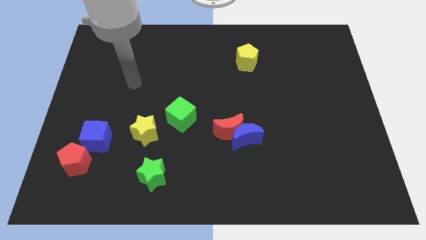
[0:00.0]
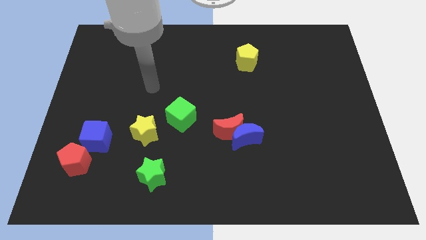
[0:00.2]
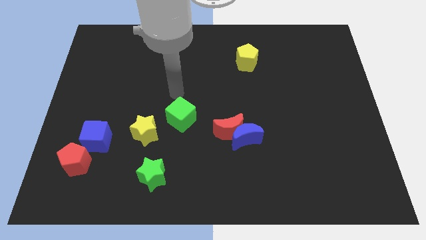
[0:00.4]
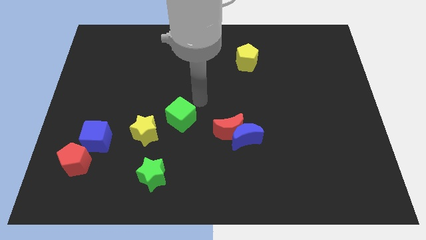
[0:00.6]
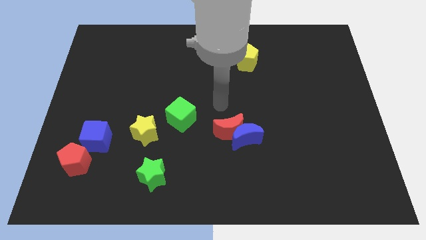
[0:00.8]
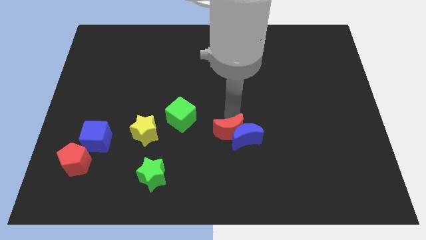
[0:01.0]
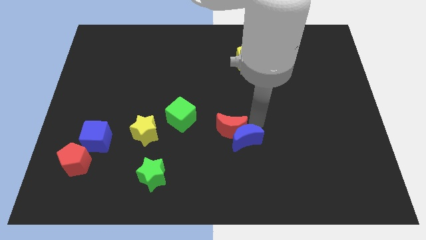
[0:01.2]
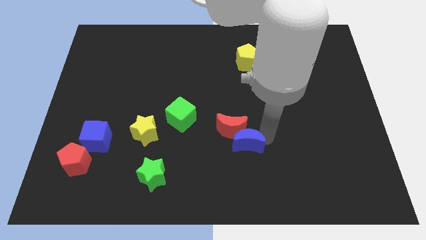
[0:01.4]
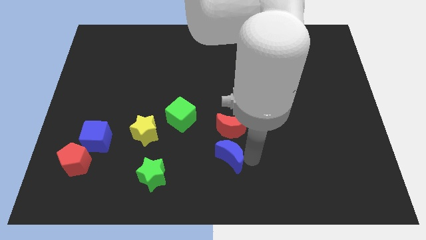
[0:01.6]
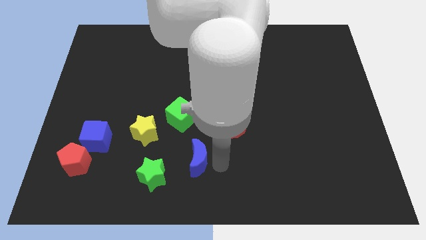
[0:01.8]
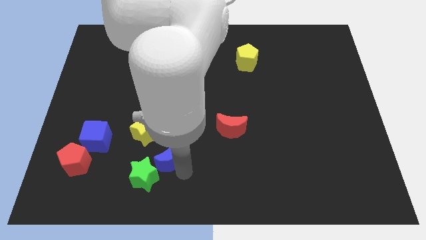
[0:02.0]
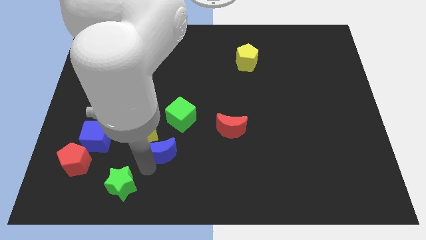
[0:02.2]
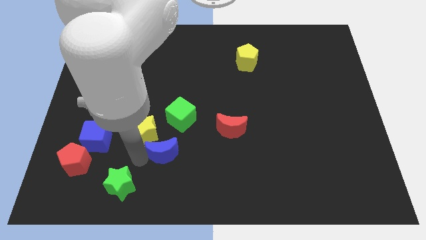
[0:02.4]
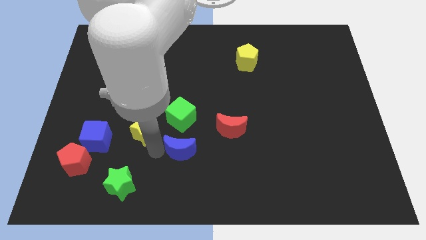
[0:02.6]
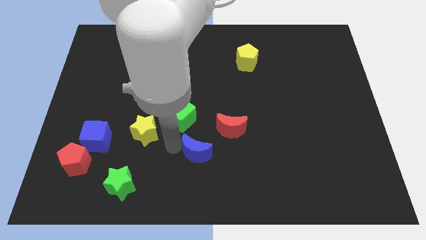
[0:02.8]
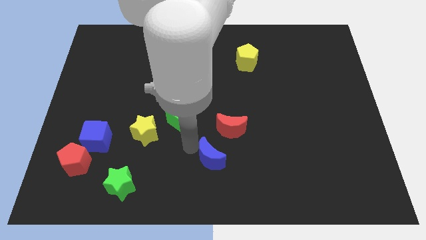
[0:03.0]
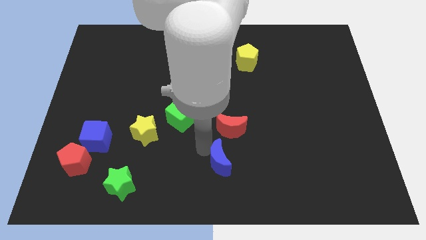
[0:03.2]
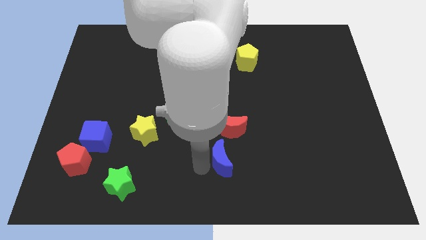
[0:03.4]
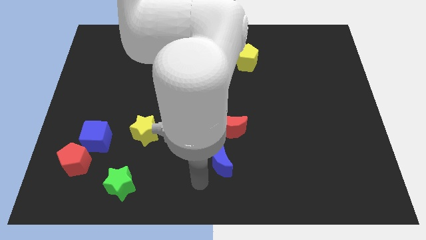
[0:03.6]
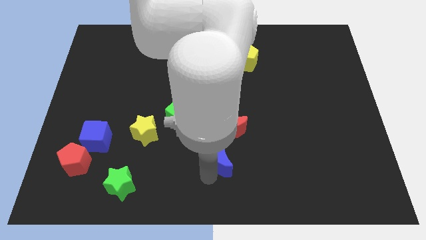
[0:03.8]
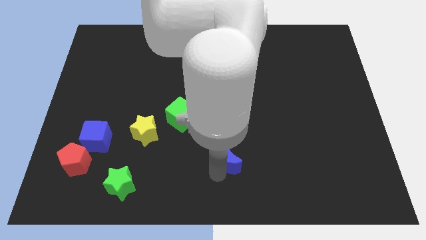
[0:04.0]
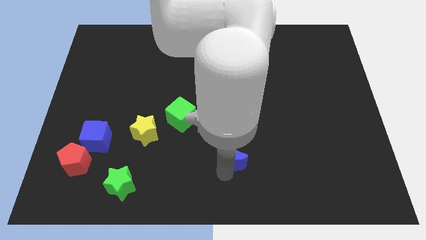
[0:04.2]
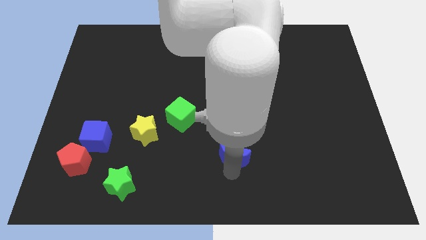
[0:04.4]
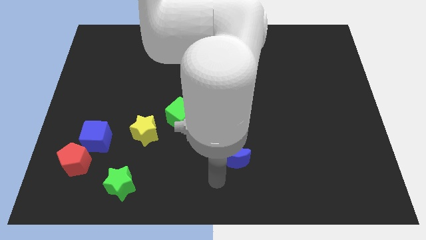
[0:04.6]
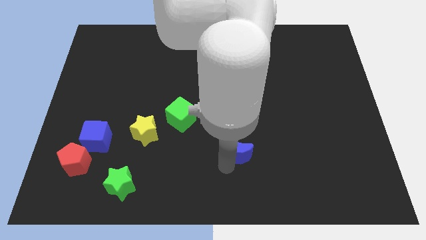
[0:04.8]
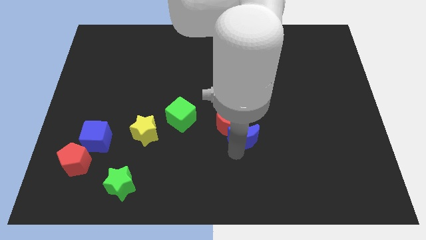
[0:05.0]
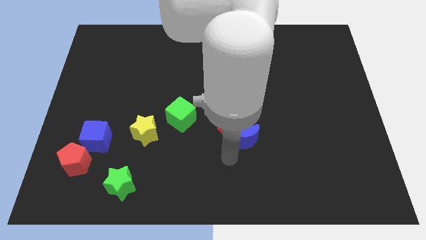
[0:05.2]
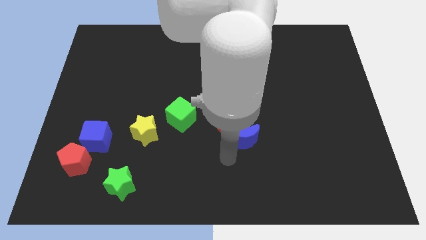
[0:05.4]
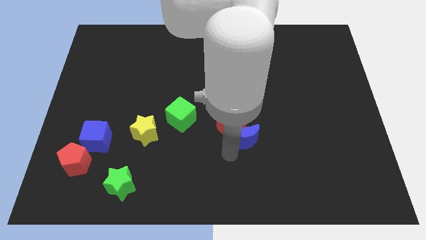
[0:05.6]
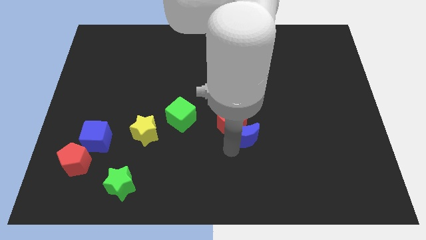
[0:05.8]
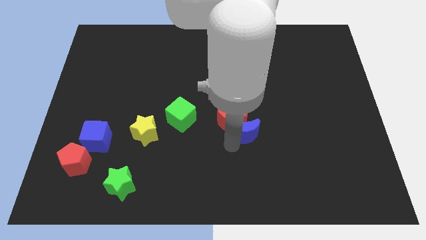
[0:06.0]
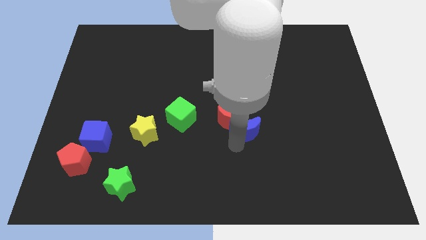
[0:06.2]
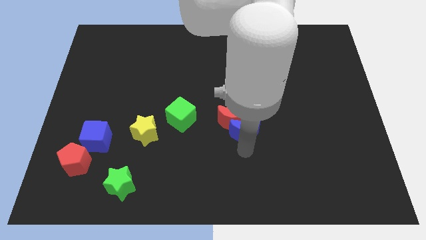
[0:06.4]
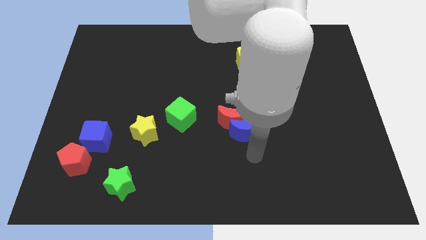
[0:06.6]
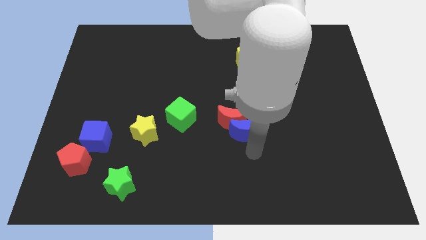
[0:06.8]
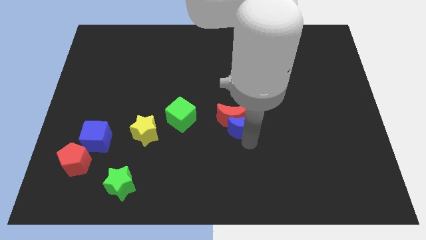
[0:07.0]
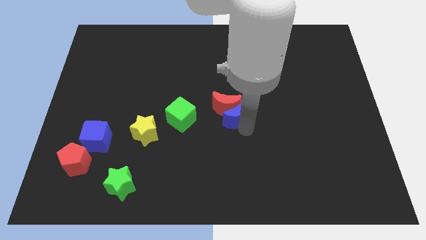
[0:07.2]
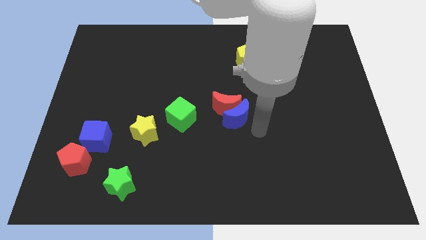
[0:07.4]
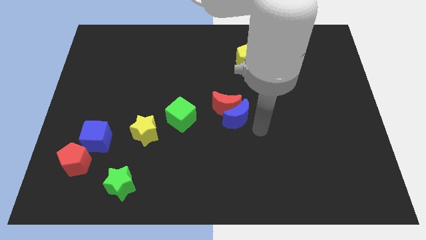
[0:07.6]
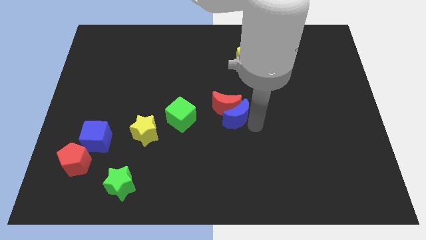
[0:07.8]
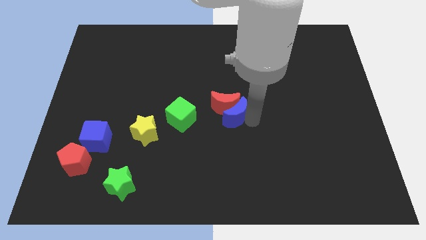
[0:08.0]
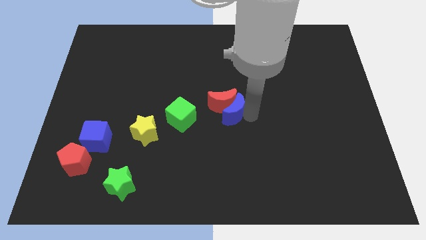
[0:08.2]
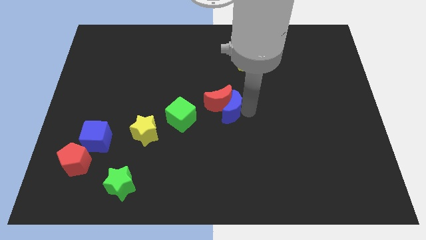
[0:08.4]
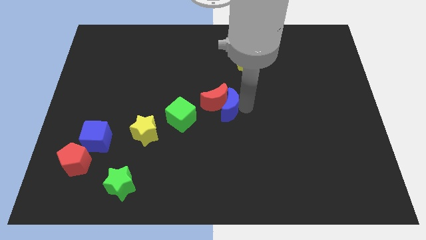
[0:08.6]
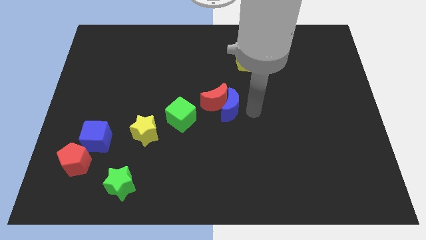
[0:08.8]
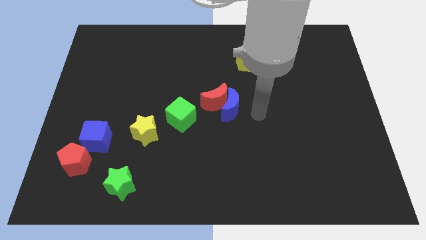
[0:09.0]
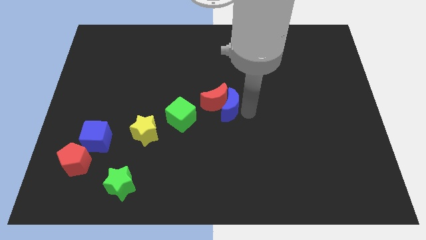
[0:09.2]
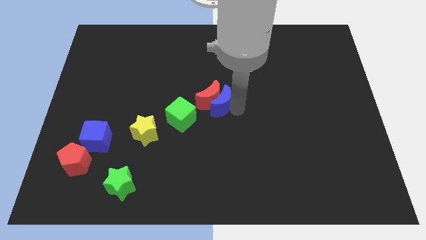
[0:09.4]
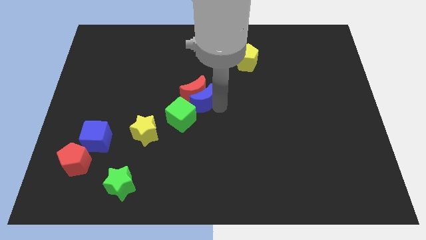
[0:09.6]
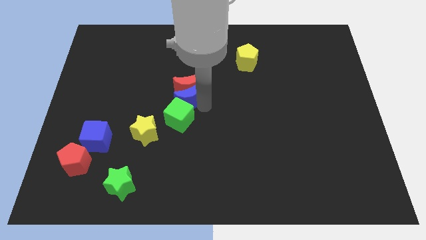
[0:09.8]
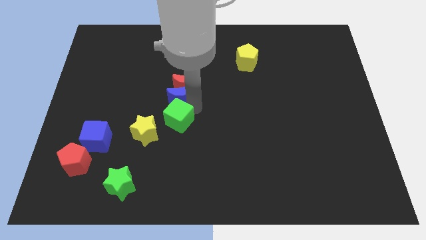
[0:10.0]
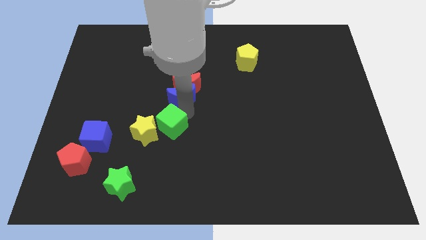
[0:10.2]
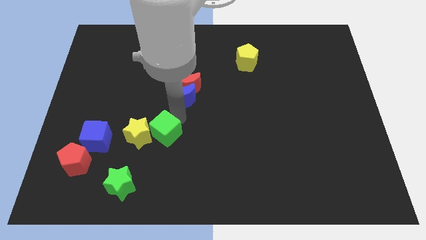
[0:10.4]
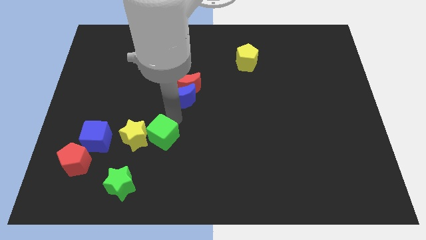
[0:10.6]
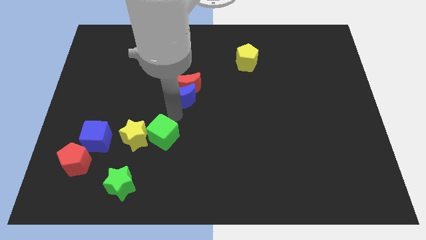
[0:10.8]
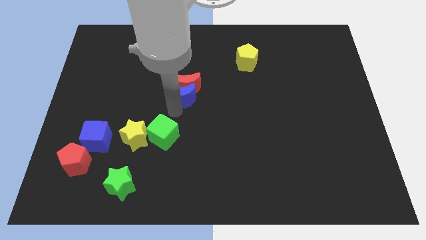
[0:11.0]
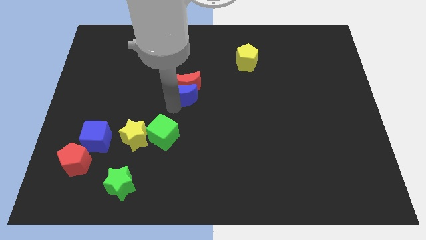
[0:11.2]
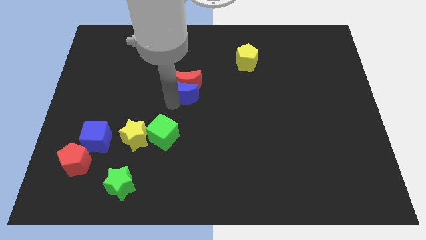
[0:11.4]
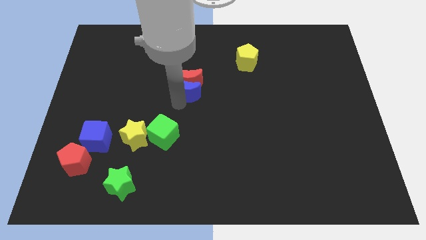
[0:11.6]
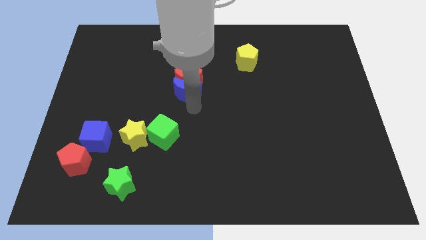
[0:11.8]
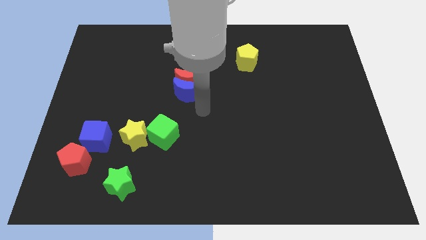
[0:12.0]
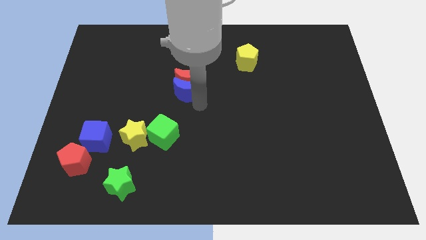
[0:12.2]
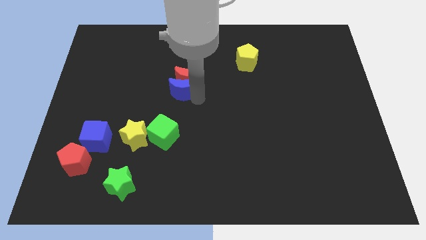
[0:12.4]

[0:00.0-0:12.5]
slide the blue moon diagonally upwards and to the left

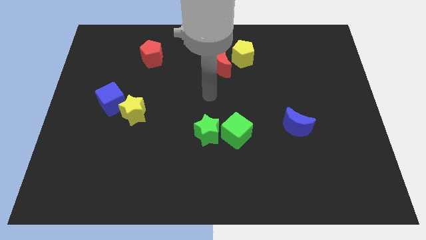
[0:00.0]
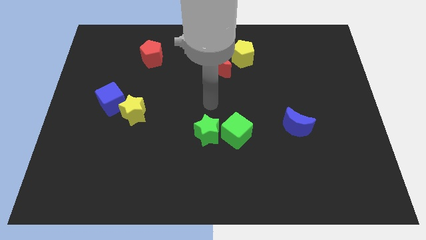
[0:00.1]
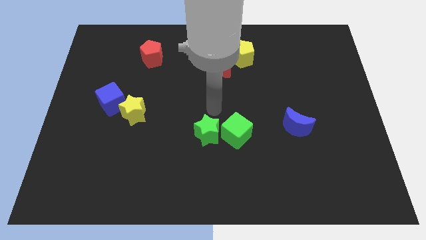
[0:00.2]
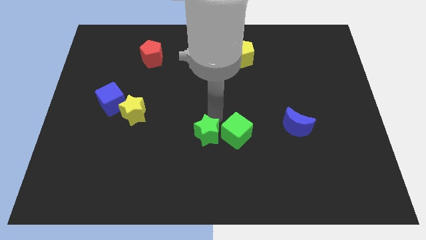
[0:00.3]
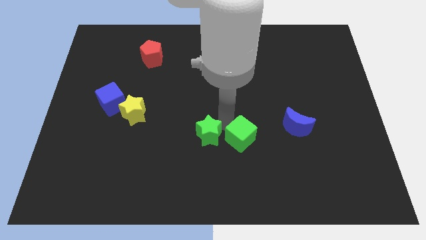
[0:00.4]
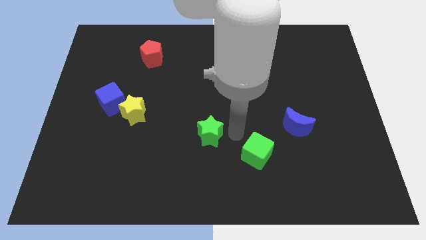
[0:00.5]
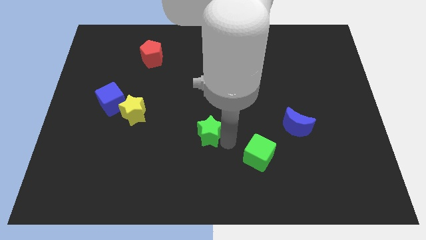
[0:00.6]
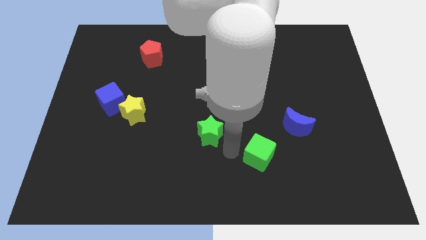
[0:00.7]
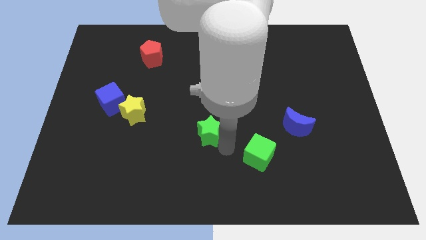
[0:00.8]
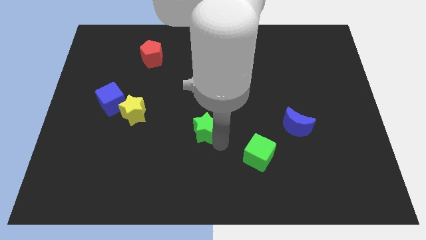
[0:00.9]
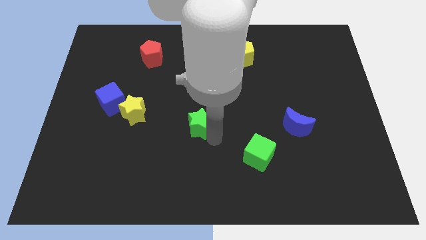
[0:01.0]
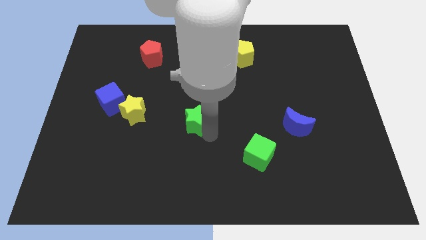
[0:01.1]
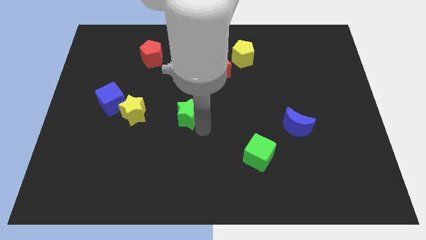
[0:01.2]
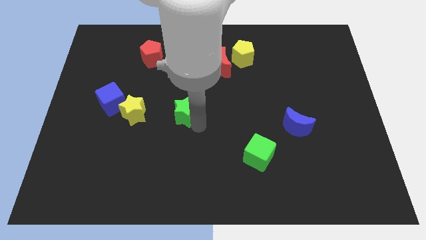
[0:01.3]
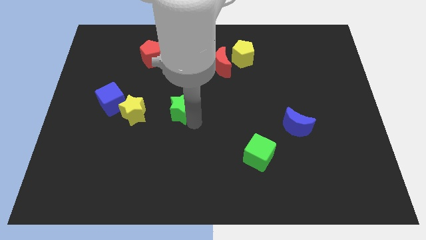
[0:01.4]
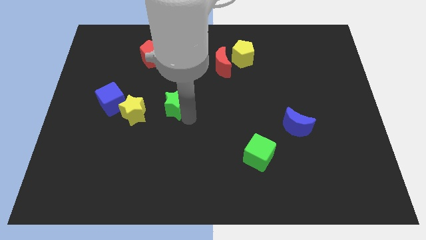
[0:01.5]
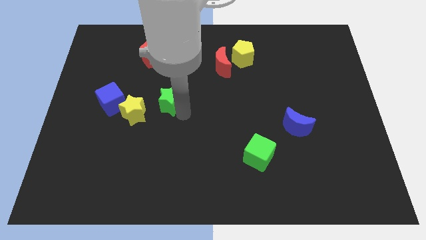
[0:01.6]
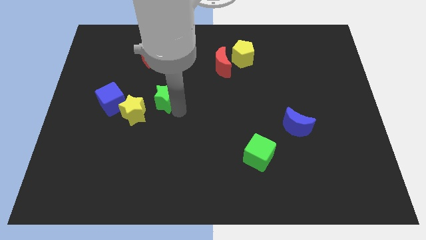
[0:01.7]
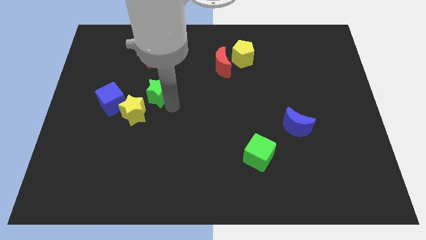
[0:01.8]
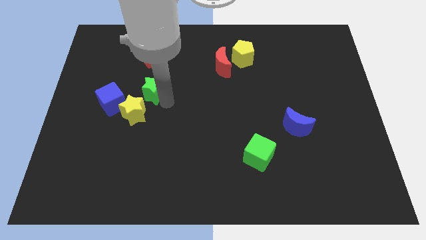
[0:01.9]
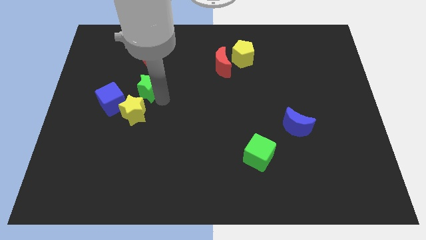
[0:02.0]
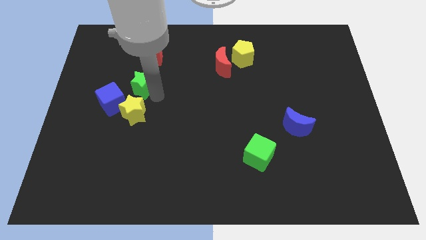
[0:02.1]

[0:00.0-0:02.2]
push the green star diagonally up and to the left
